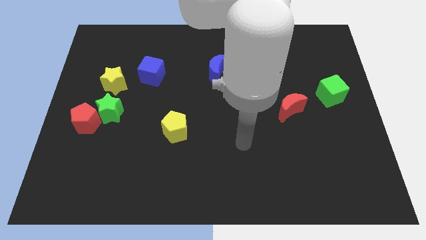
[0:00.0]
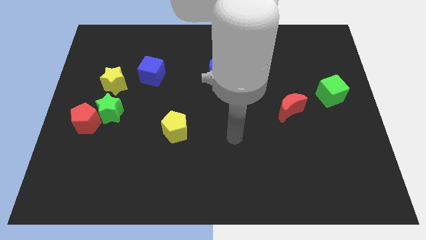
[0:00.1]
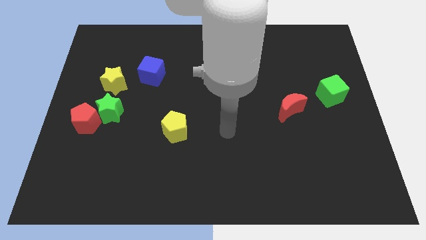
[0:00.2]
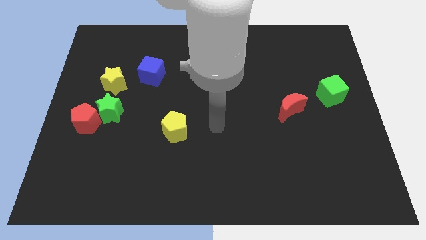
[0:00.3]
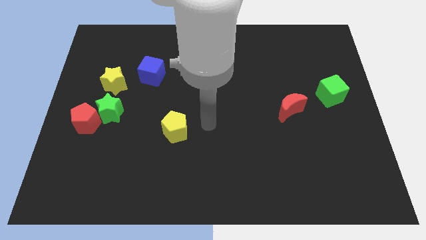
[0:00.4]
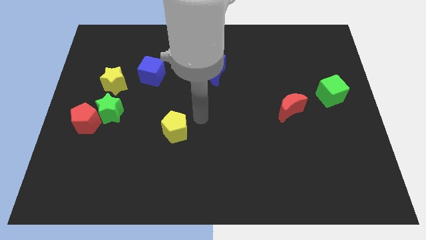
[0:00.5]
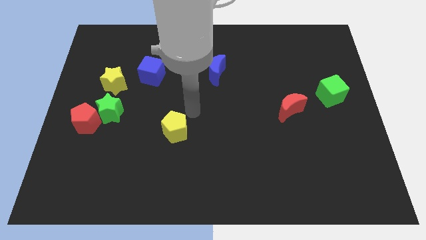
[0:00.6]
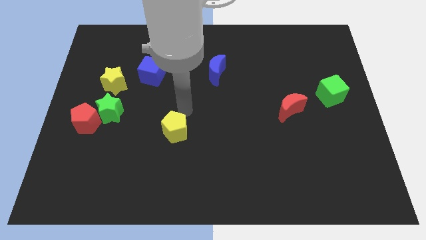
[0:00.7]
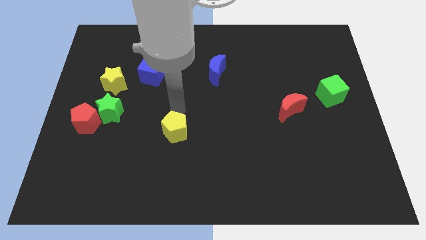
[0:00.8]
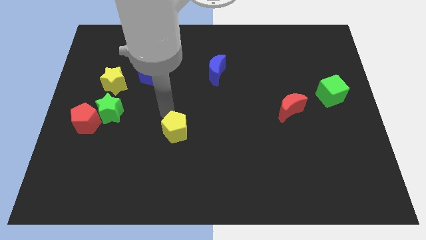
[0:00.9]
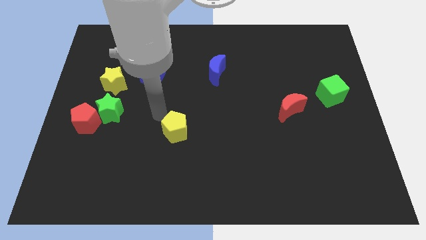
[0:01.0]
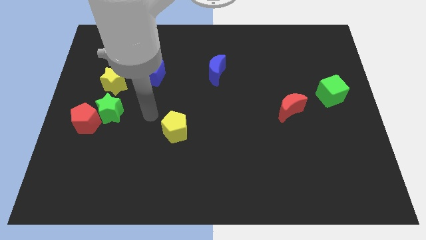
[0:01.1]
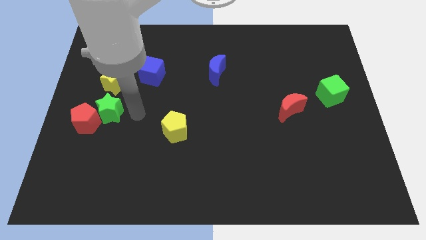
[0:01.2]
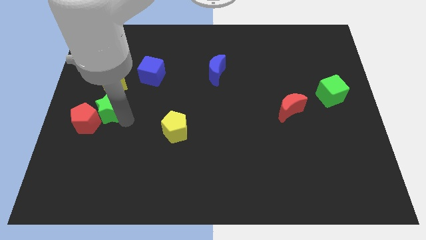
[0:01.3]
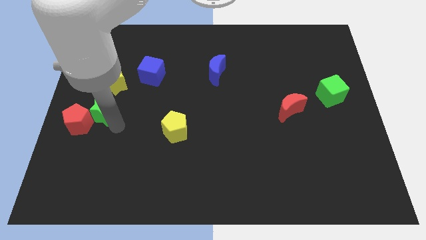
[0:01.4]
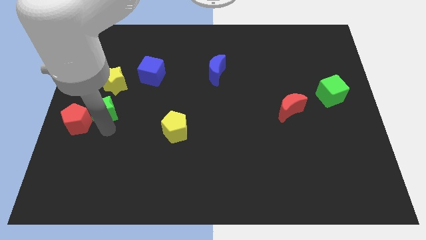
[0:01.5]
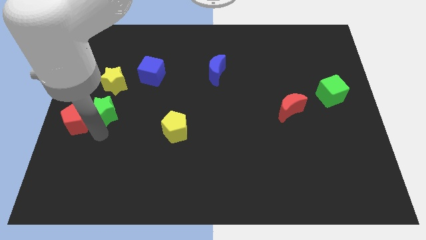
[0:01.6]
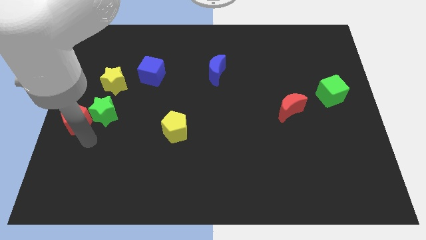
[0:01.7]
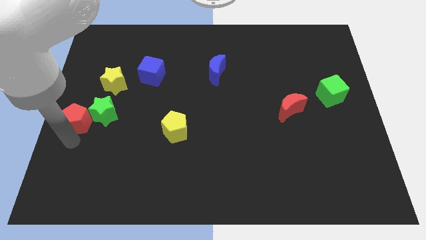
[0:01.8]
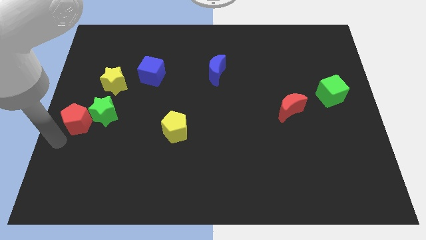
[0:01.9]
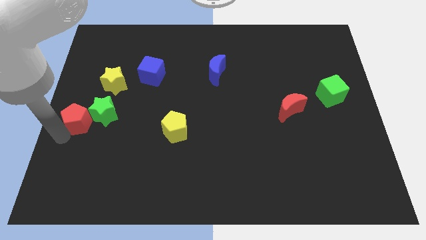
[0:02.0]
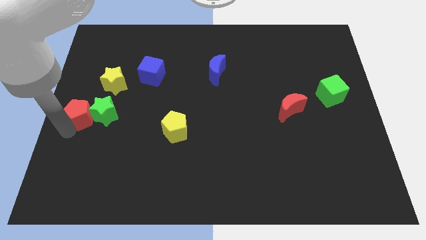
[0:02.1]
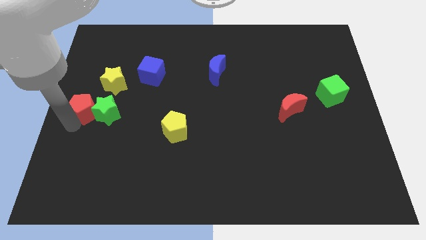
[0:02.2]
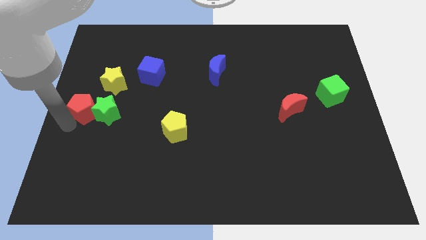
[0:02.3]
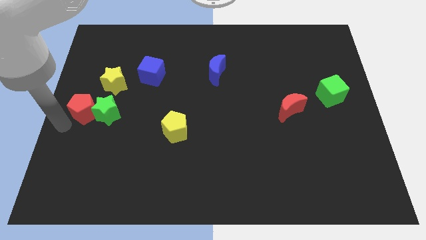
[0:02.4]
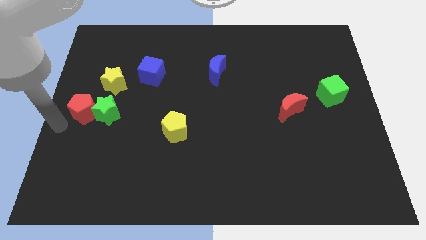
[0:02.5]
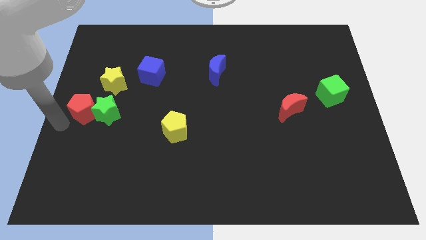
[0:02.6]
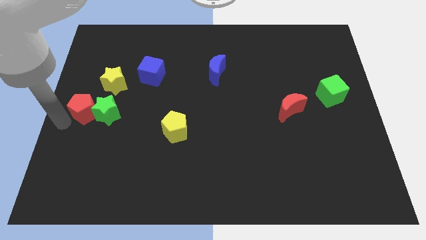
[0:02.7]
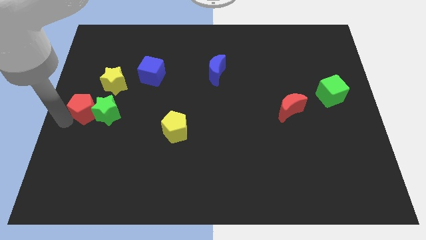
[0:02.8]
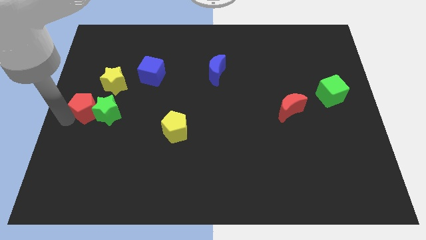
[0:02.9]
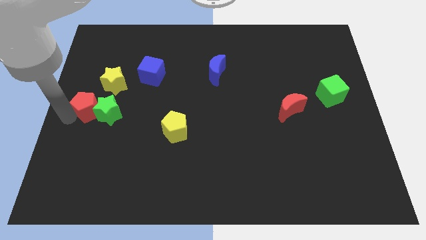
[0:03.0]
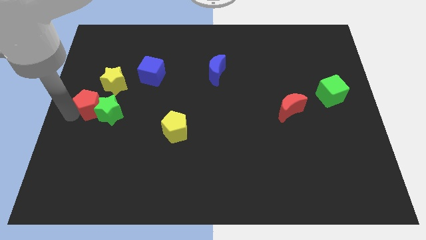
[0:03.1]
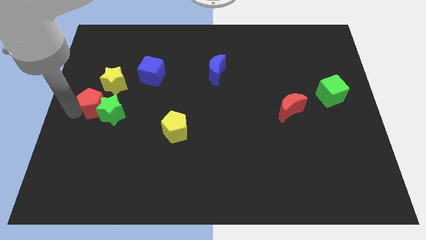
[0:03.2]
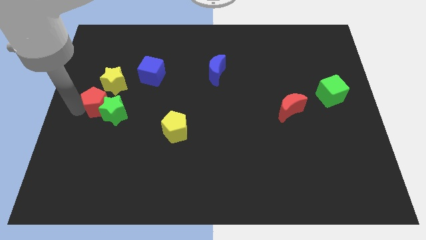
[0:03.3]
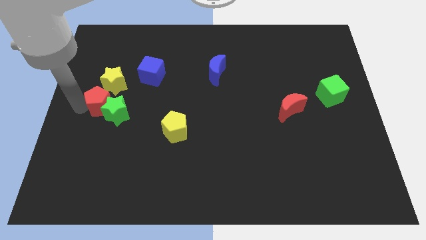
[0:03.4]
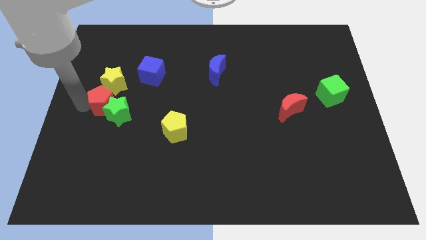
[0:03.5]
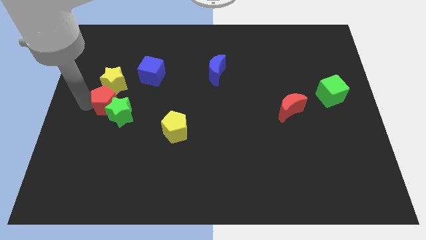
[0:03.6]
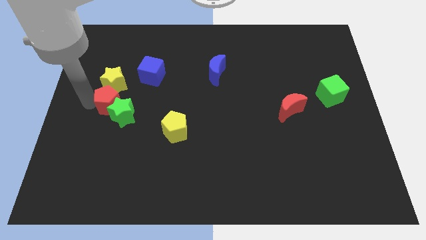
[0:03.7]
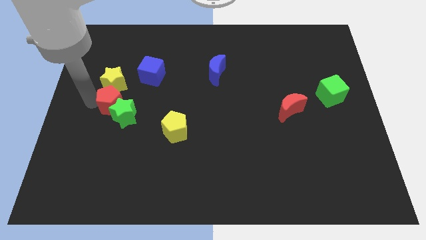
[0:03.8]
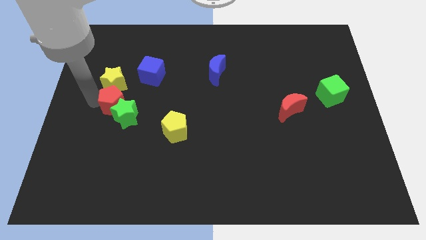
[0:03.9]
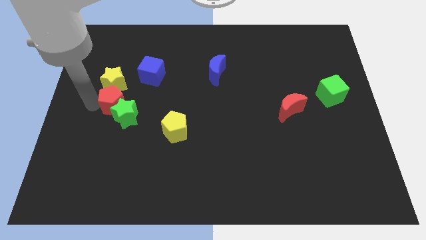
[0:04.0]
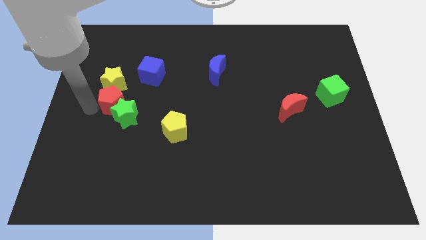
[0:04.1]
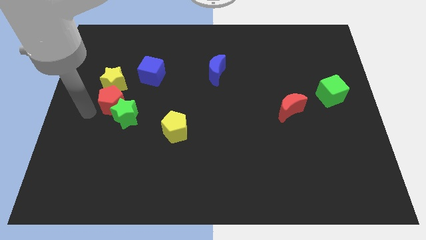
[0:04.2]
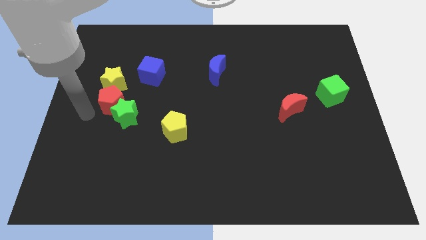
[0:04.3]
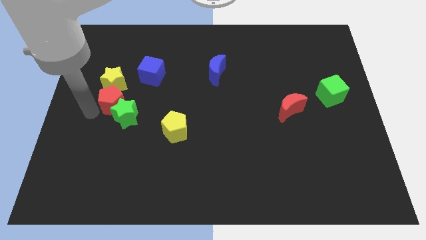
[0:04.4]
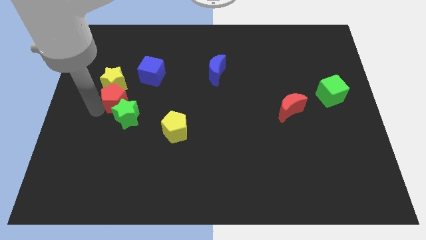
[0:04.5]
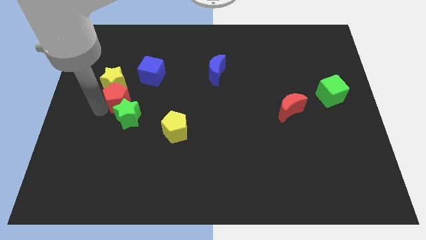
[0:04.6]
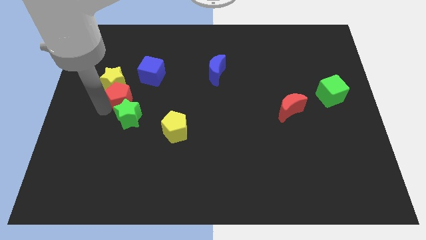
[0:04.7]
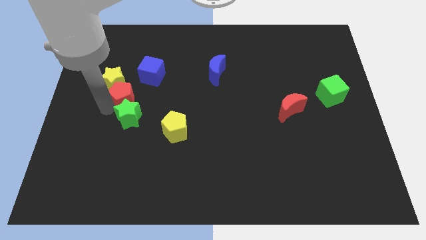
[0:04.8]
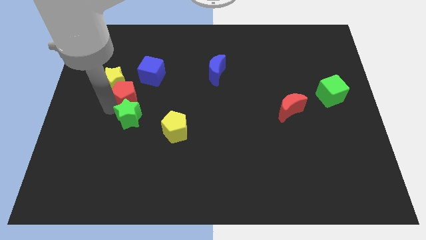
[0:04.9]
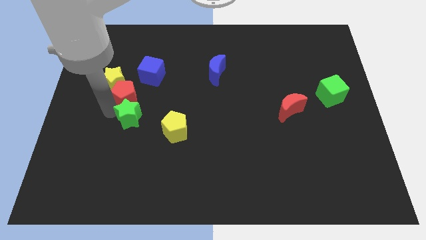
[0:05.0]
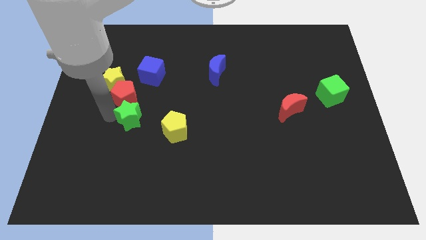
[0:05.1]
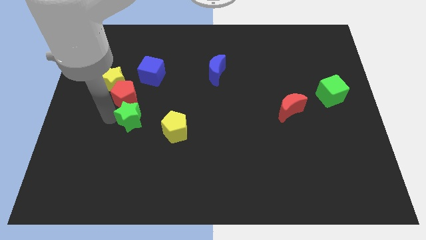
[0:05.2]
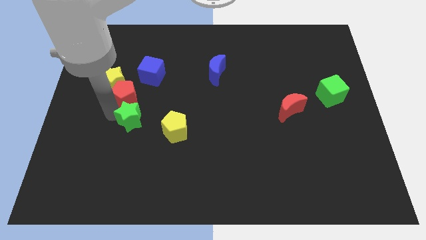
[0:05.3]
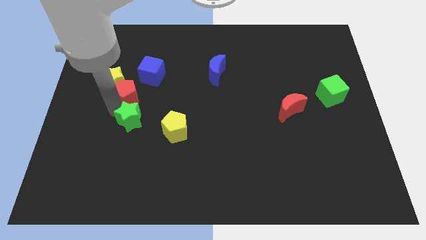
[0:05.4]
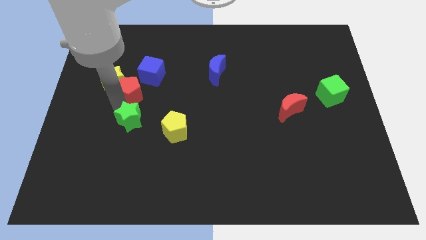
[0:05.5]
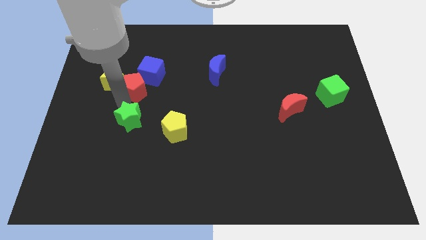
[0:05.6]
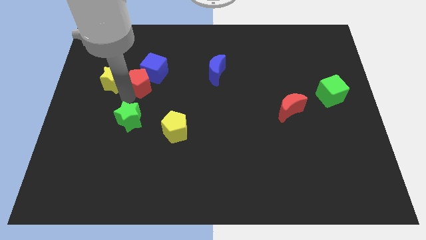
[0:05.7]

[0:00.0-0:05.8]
move the red pentagon towards the blue cube

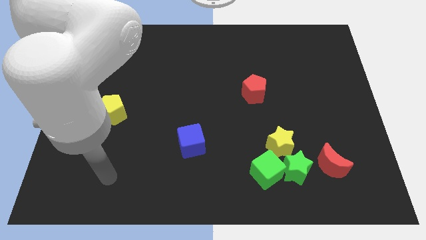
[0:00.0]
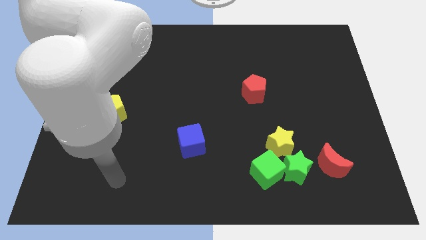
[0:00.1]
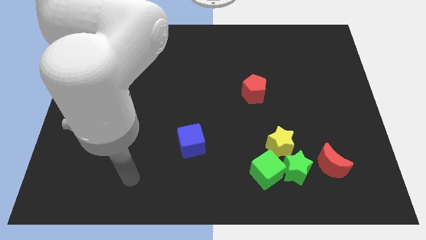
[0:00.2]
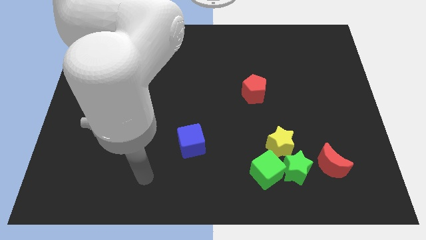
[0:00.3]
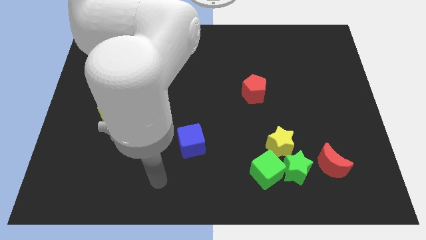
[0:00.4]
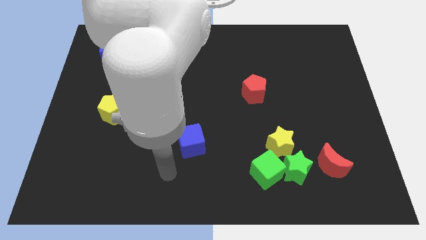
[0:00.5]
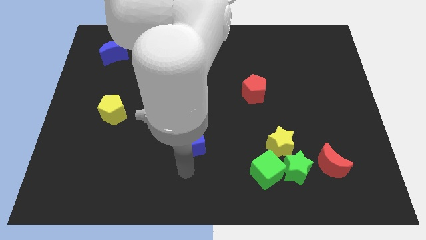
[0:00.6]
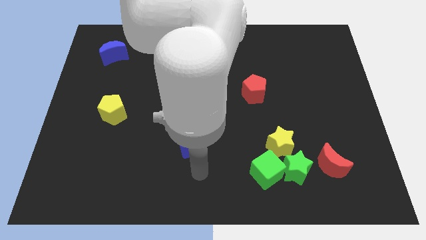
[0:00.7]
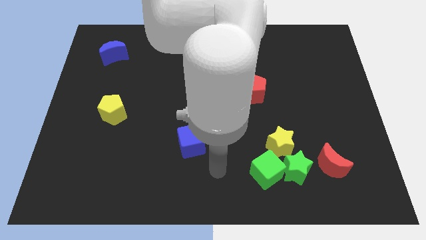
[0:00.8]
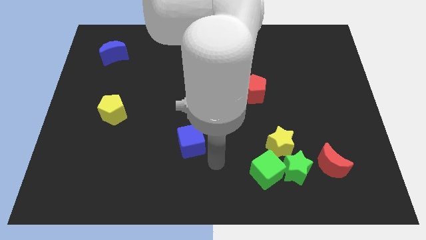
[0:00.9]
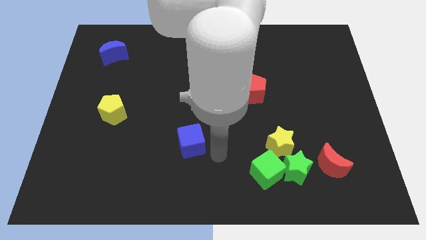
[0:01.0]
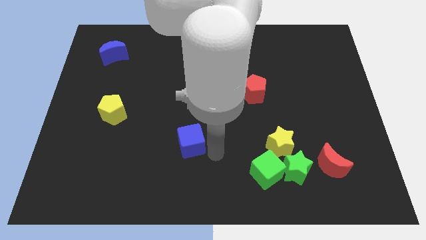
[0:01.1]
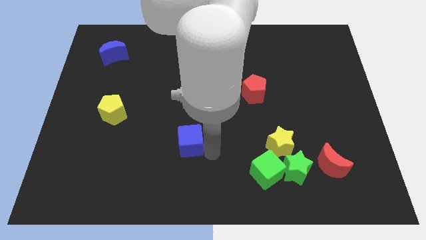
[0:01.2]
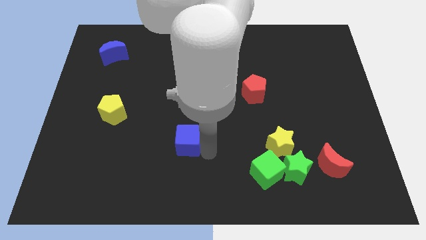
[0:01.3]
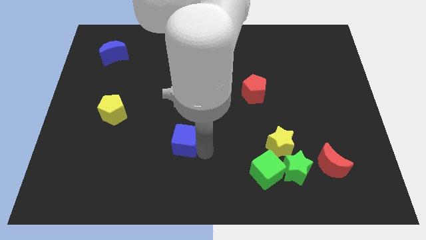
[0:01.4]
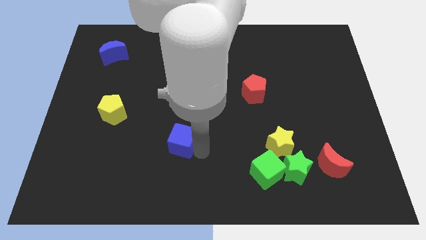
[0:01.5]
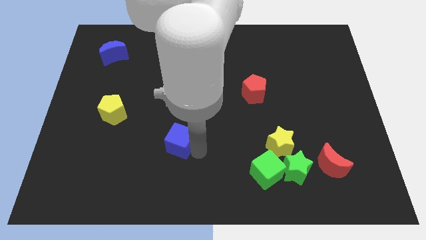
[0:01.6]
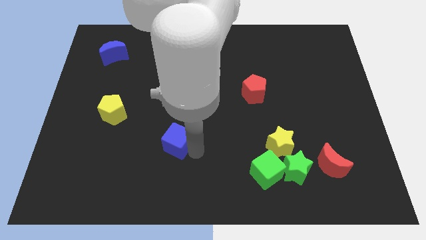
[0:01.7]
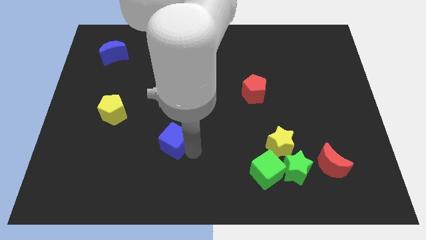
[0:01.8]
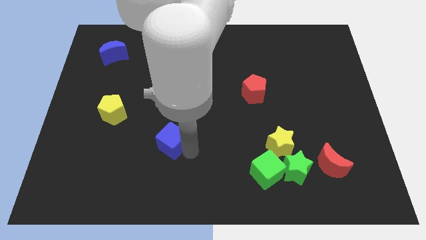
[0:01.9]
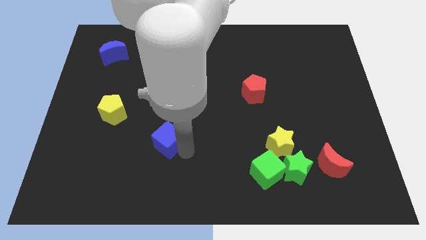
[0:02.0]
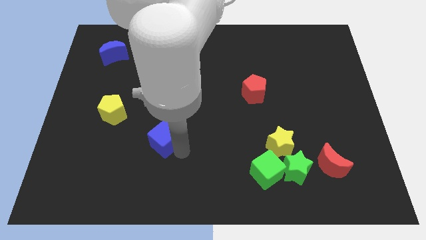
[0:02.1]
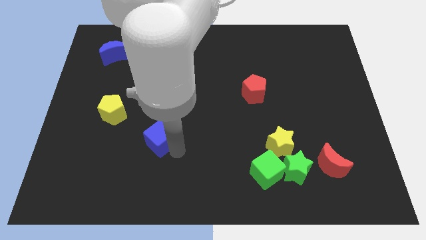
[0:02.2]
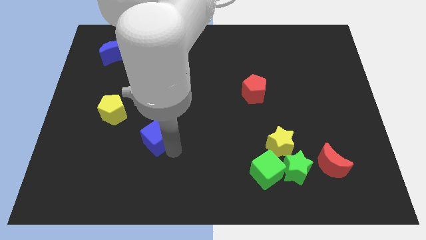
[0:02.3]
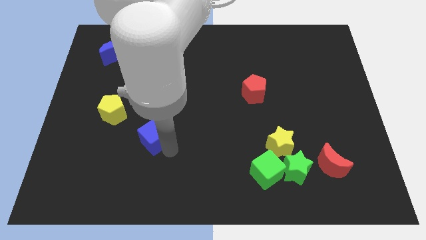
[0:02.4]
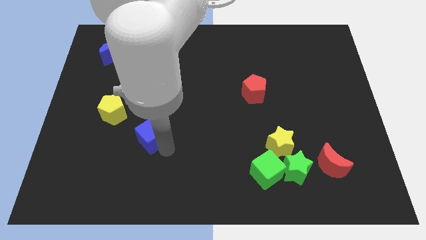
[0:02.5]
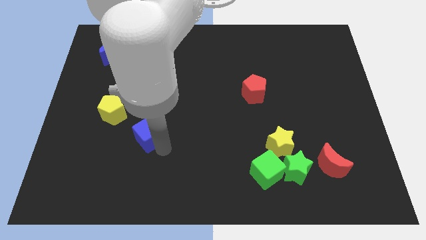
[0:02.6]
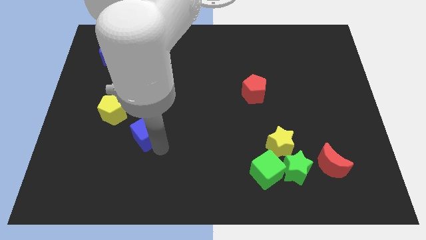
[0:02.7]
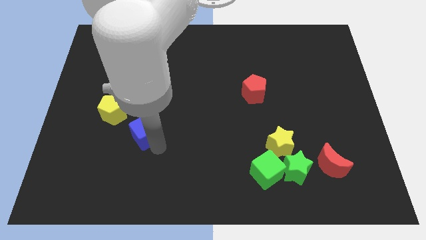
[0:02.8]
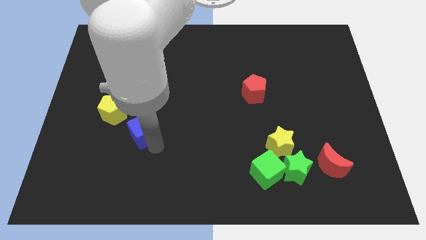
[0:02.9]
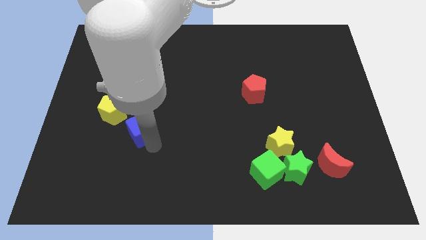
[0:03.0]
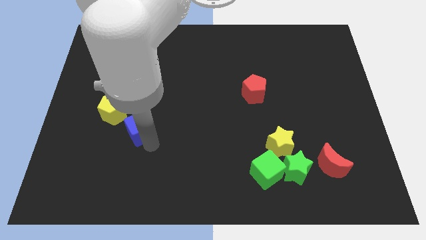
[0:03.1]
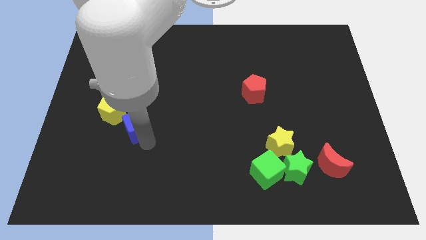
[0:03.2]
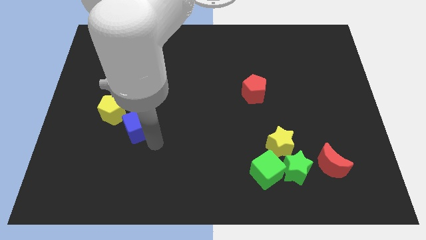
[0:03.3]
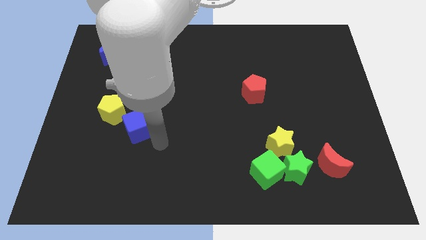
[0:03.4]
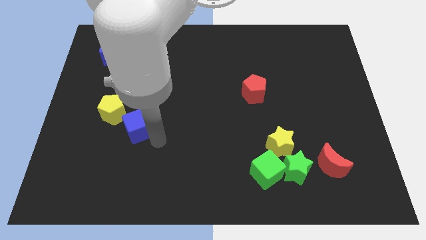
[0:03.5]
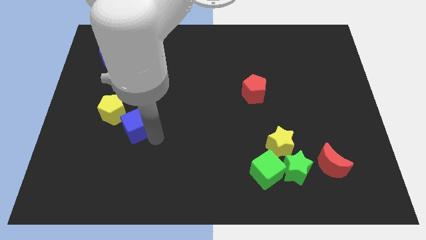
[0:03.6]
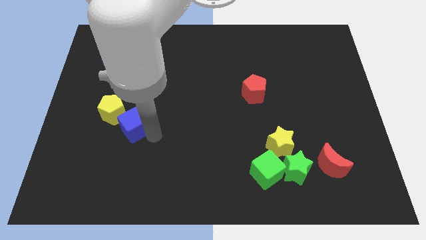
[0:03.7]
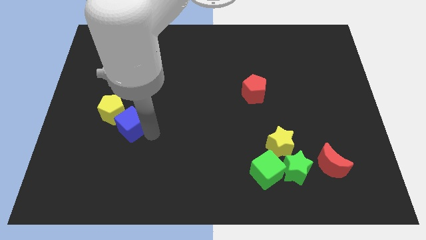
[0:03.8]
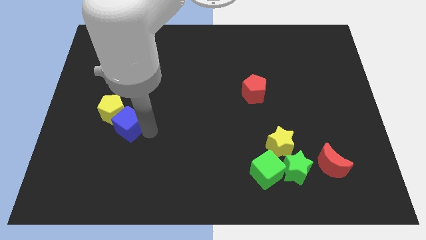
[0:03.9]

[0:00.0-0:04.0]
push the blue cube to the yellow pentagon
